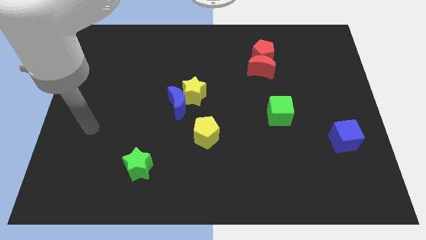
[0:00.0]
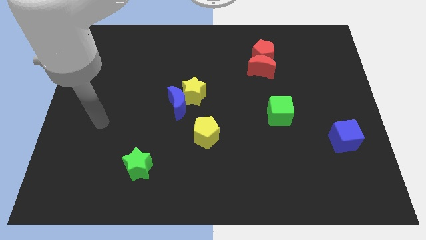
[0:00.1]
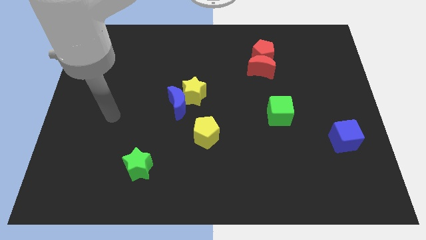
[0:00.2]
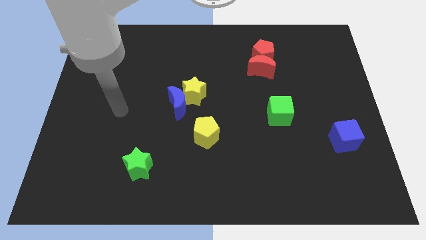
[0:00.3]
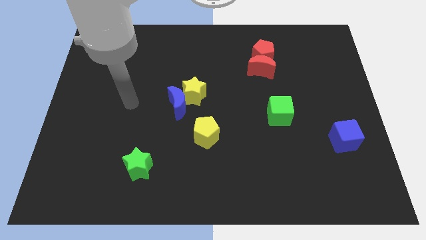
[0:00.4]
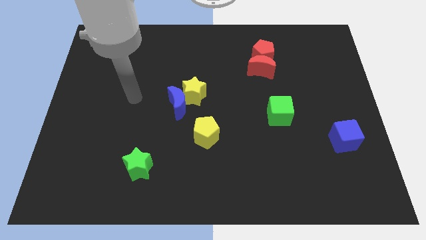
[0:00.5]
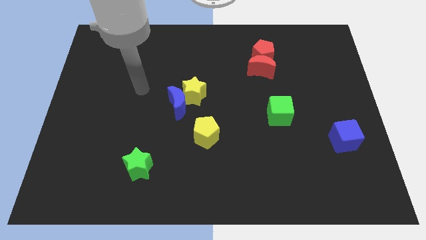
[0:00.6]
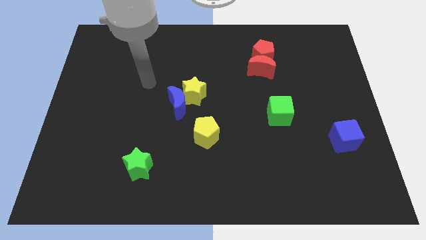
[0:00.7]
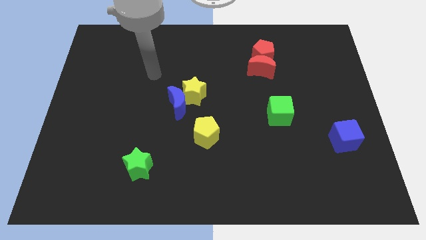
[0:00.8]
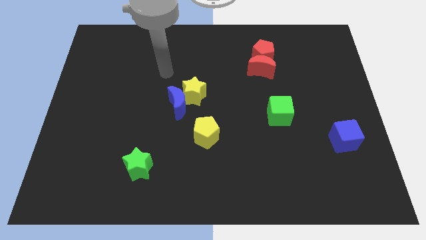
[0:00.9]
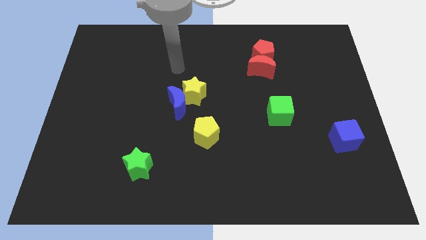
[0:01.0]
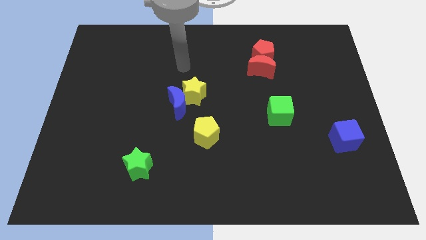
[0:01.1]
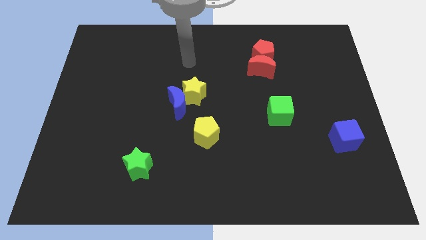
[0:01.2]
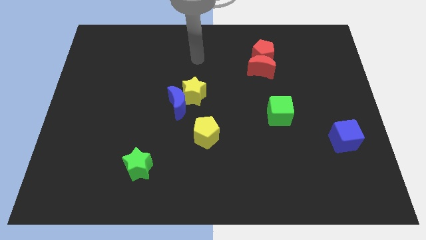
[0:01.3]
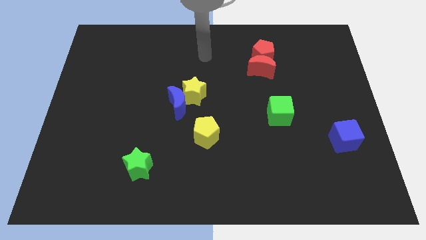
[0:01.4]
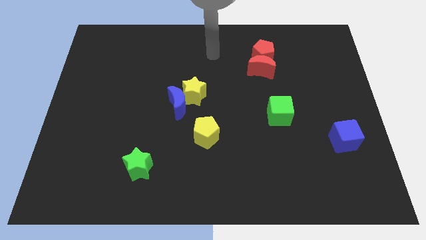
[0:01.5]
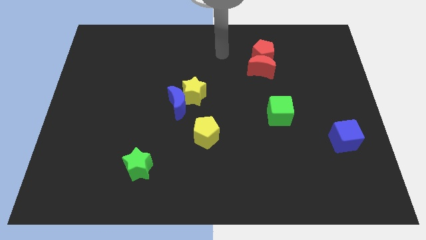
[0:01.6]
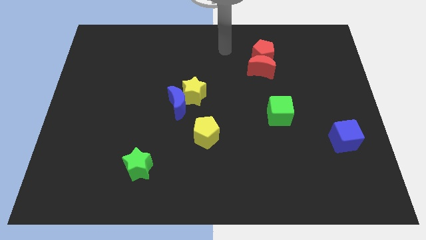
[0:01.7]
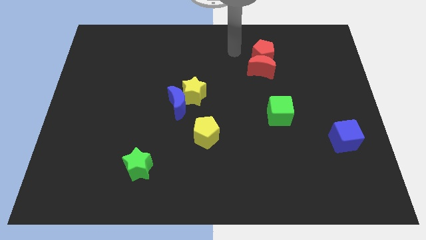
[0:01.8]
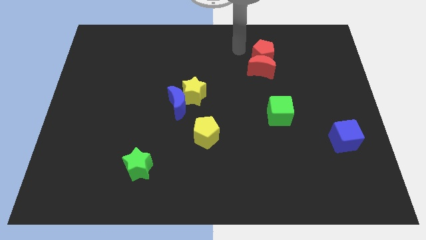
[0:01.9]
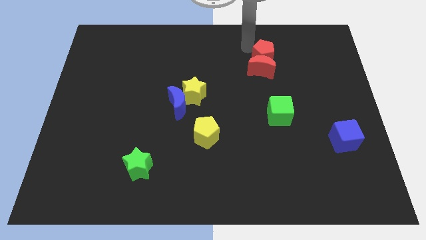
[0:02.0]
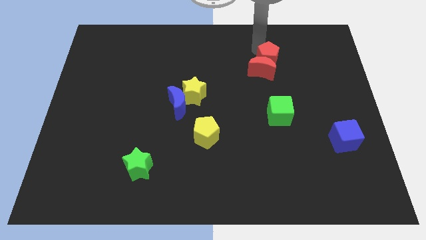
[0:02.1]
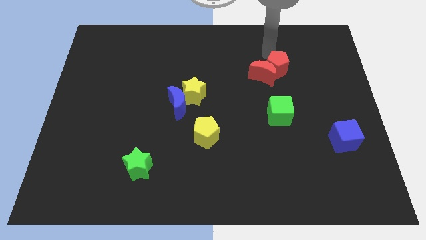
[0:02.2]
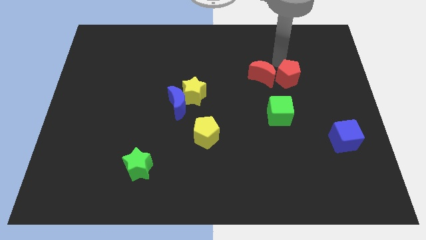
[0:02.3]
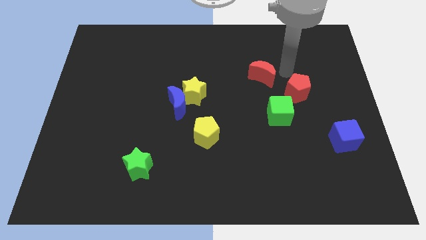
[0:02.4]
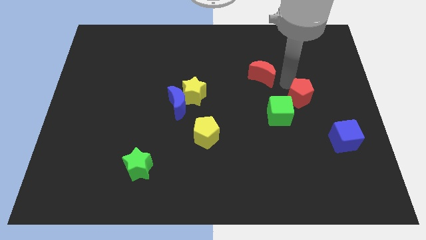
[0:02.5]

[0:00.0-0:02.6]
pull the red moon apart from the red pentagon

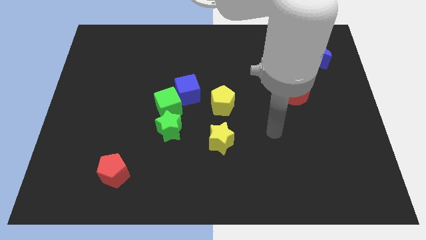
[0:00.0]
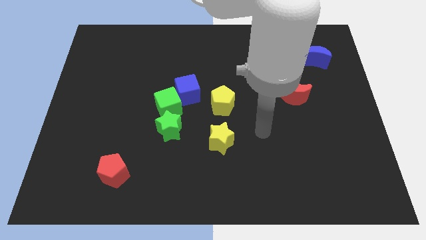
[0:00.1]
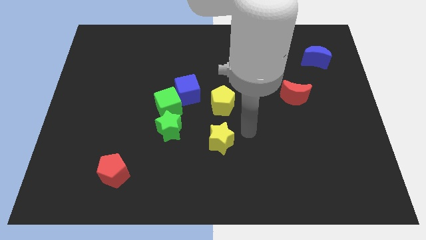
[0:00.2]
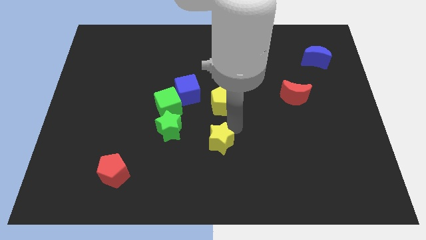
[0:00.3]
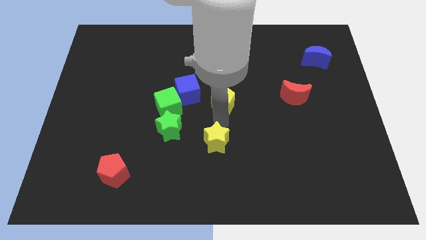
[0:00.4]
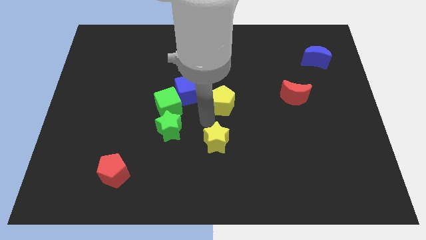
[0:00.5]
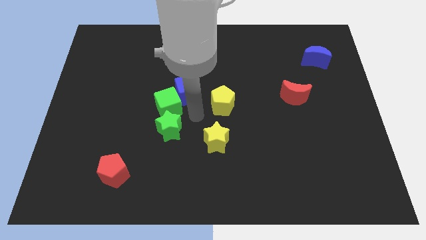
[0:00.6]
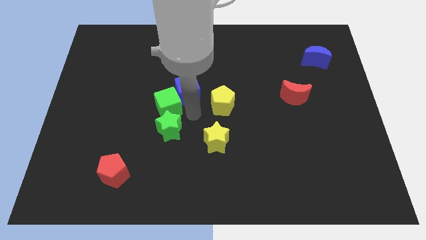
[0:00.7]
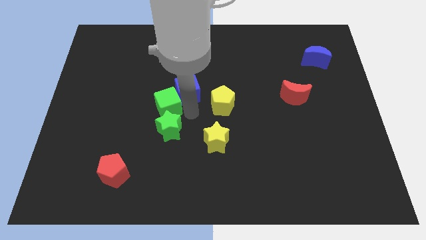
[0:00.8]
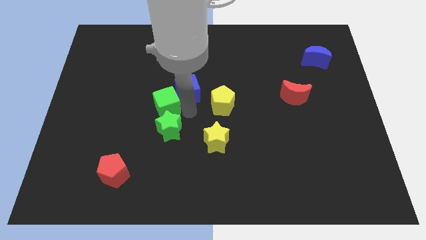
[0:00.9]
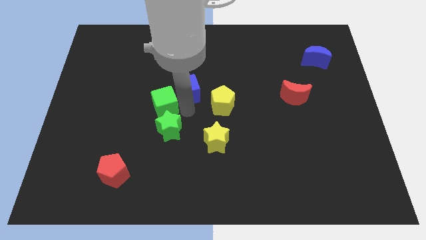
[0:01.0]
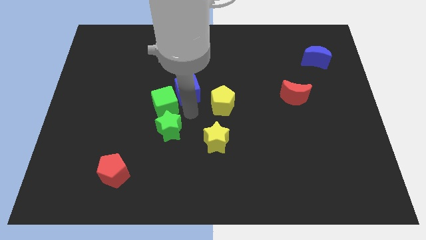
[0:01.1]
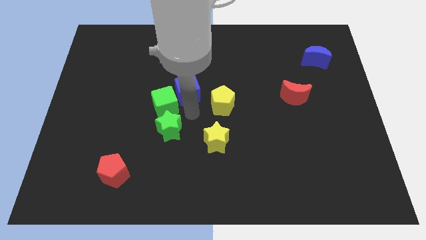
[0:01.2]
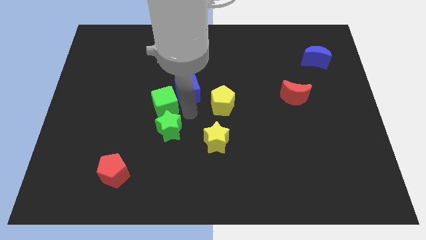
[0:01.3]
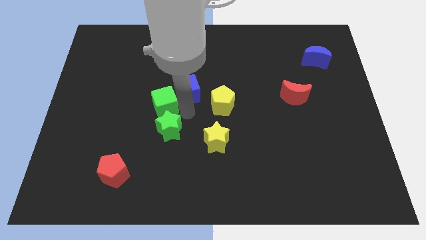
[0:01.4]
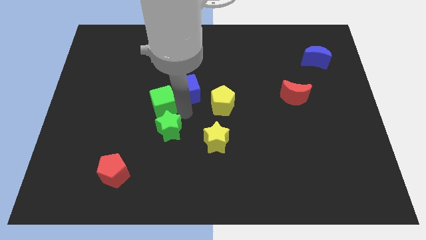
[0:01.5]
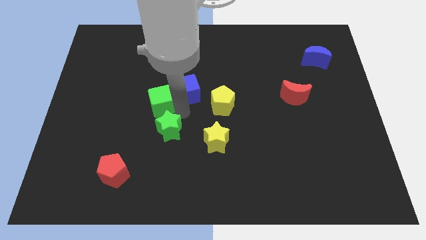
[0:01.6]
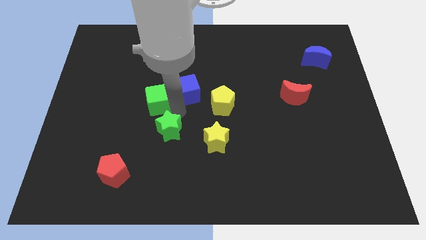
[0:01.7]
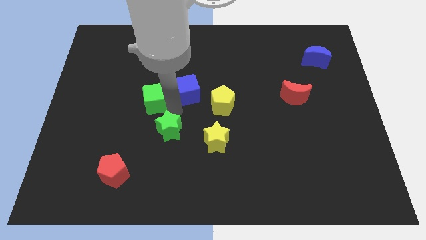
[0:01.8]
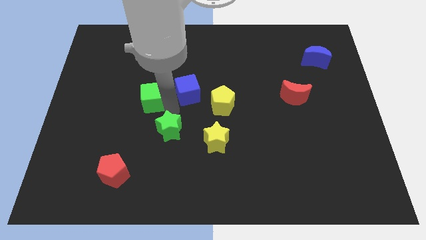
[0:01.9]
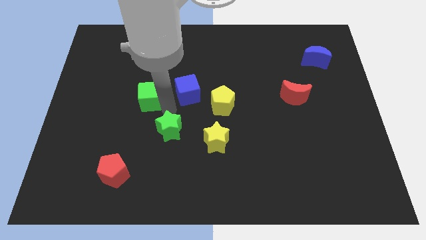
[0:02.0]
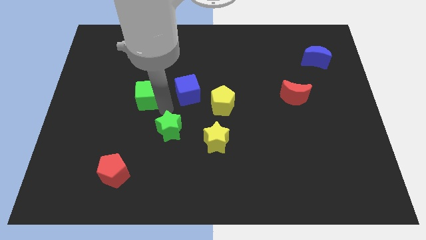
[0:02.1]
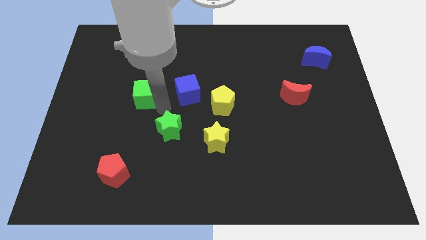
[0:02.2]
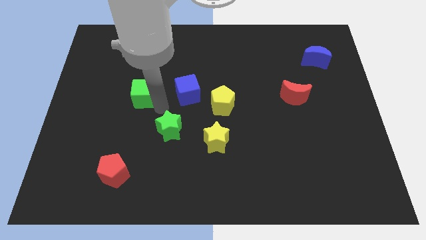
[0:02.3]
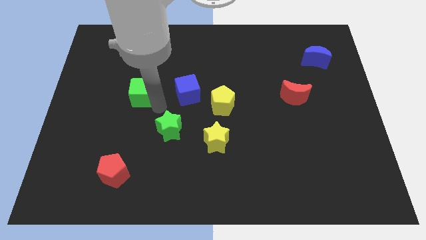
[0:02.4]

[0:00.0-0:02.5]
move the green cube away from the blue cube and green star

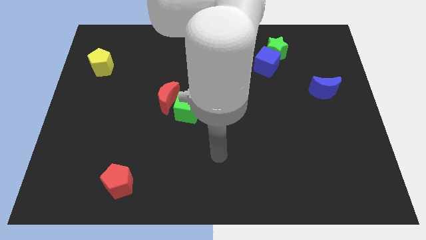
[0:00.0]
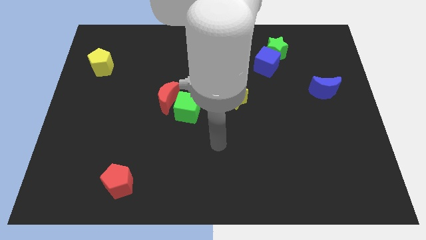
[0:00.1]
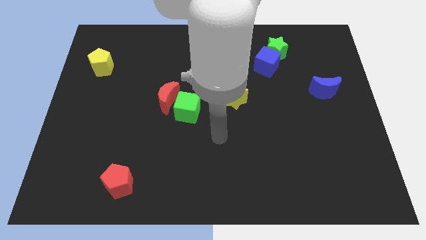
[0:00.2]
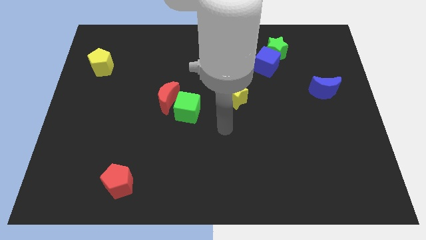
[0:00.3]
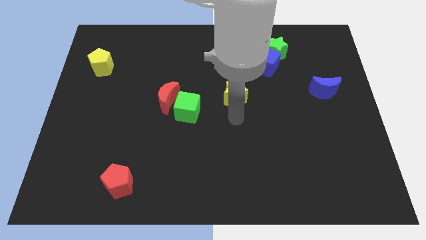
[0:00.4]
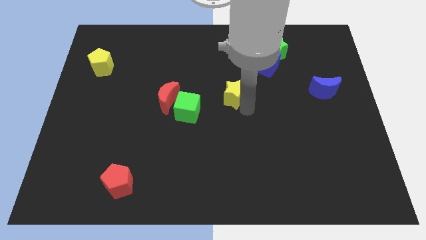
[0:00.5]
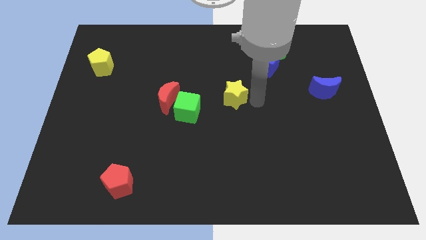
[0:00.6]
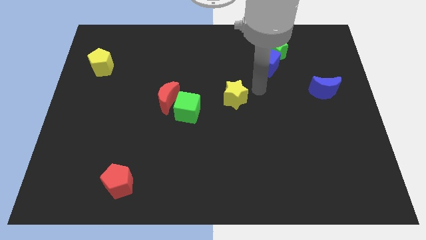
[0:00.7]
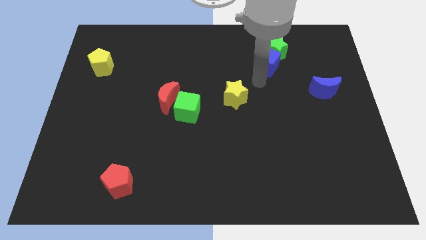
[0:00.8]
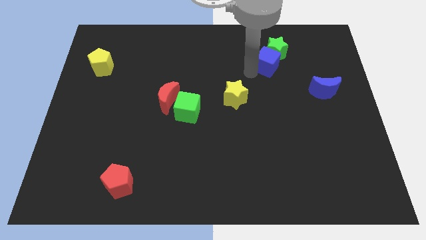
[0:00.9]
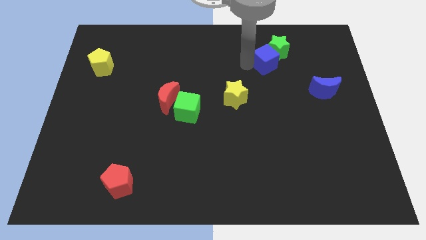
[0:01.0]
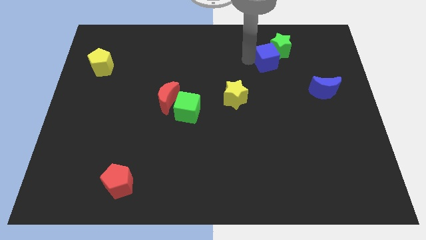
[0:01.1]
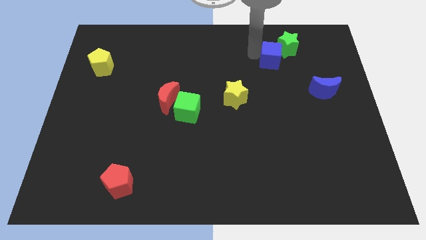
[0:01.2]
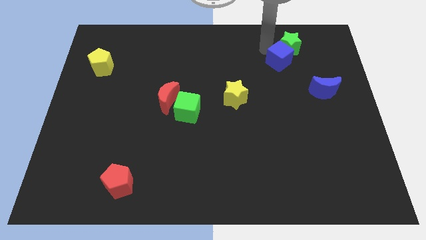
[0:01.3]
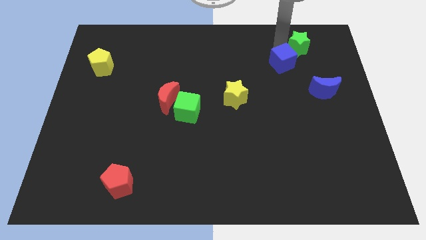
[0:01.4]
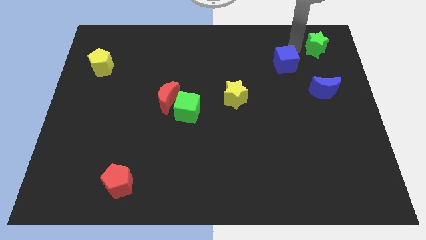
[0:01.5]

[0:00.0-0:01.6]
pull the blue cube apart from the green star

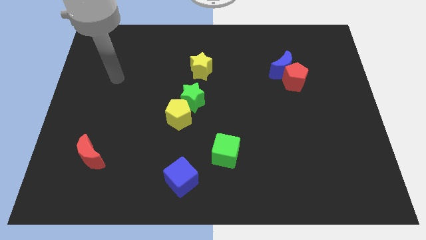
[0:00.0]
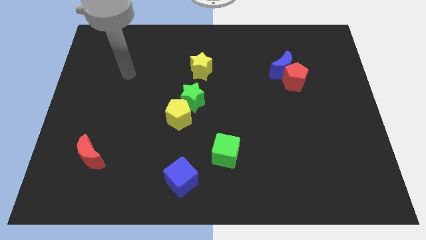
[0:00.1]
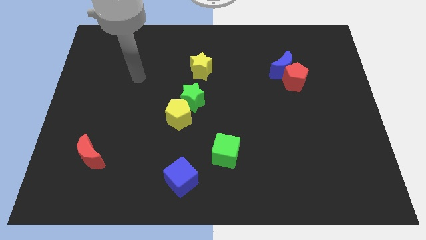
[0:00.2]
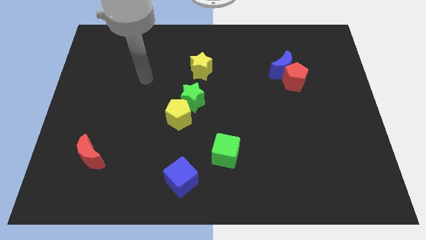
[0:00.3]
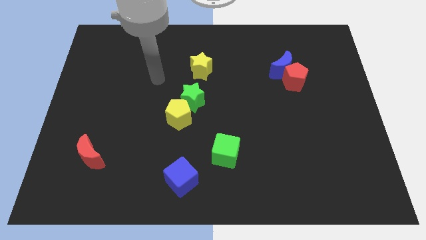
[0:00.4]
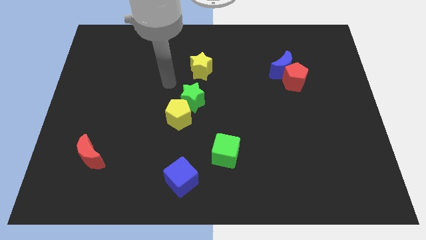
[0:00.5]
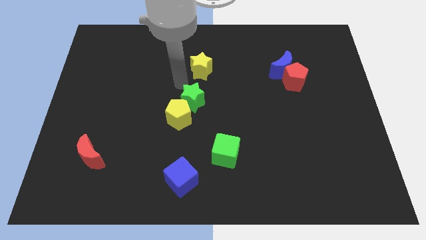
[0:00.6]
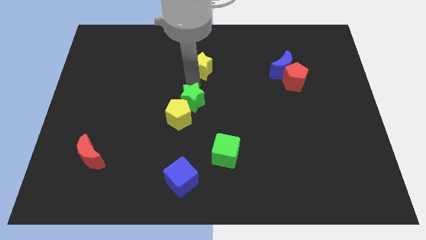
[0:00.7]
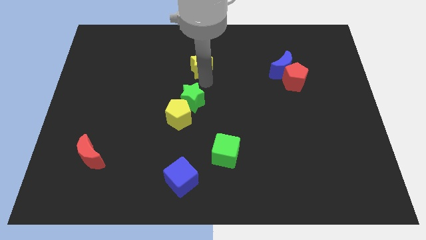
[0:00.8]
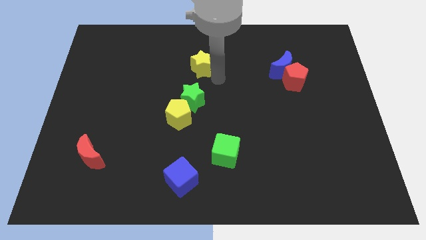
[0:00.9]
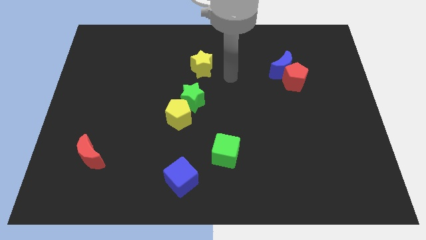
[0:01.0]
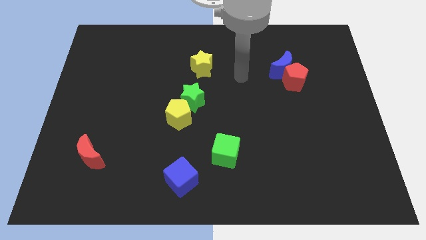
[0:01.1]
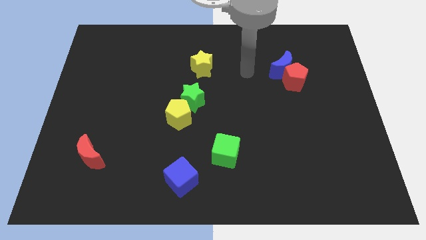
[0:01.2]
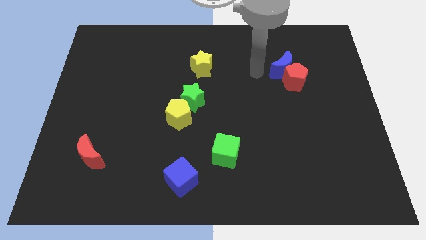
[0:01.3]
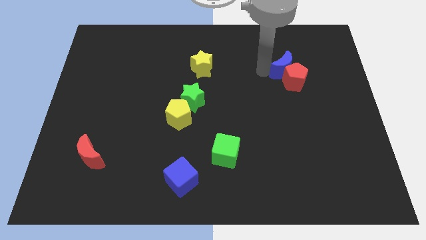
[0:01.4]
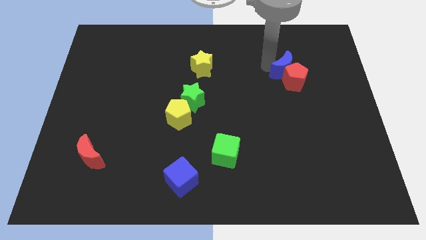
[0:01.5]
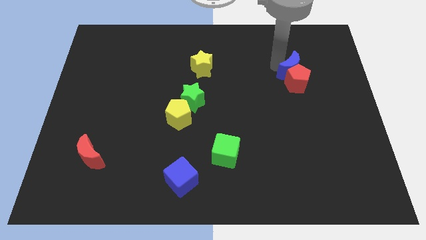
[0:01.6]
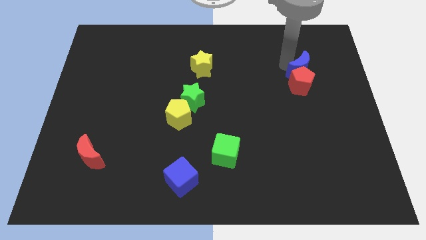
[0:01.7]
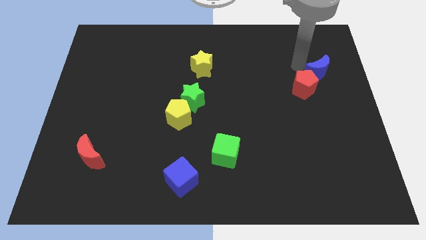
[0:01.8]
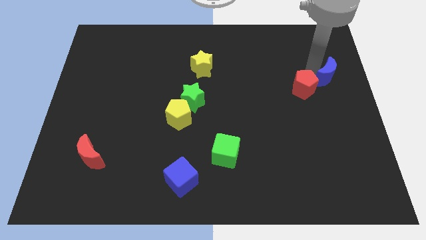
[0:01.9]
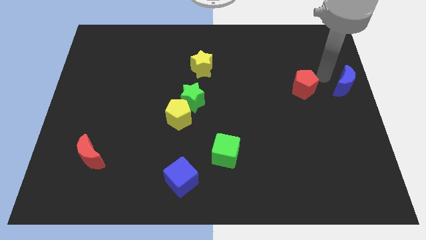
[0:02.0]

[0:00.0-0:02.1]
separate the red pentagon from the blue moon

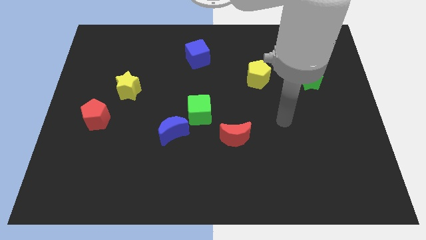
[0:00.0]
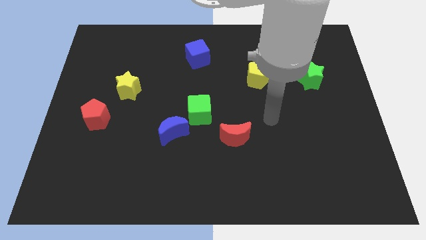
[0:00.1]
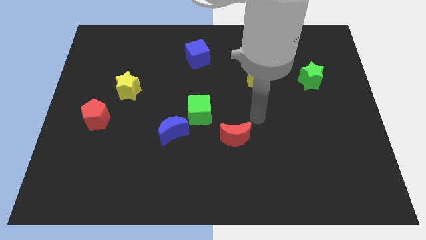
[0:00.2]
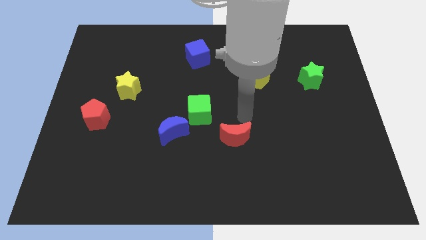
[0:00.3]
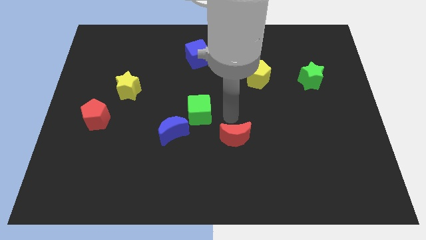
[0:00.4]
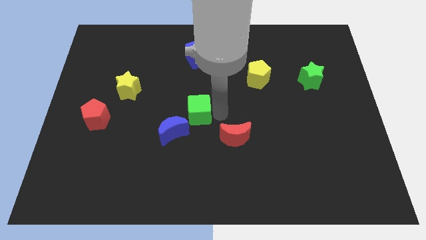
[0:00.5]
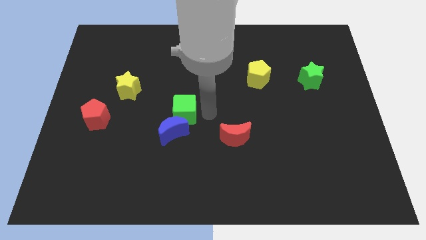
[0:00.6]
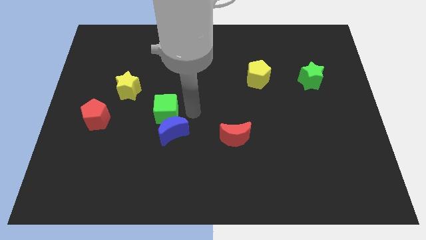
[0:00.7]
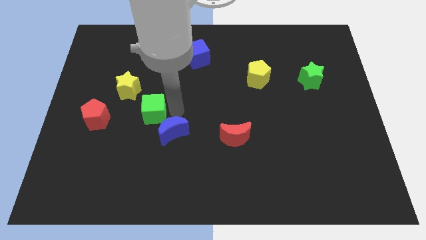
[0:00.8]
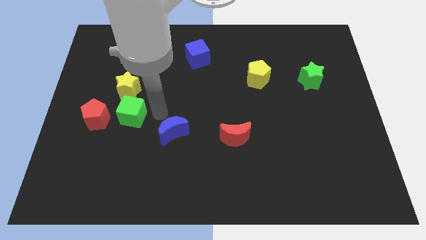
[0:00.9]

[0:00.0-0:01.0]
separate the blue moon from the green cube
